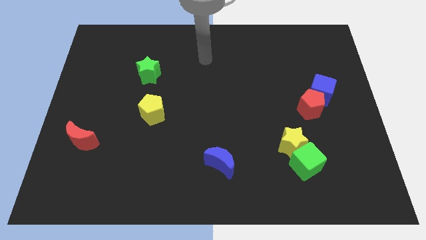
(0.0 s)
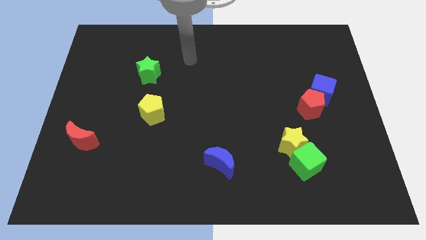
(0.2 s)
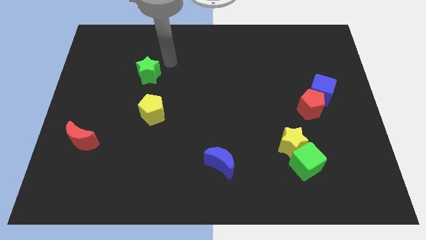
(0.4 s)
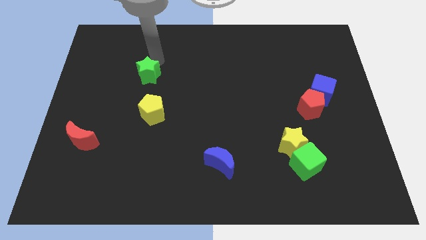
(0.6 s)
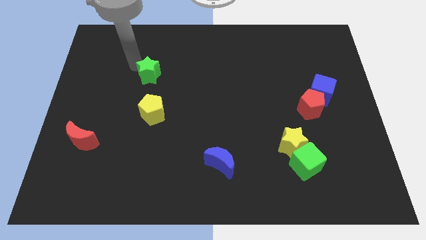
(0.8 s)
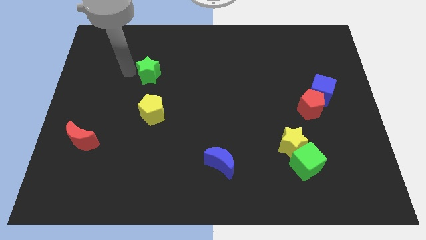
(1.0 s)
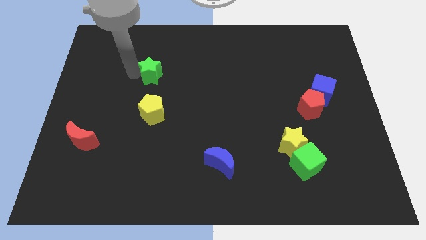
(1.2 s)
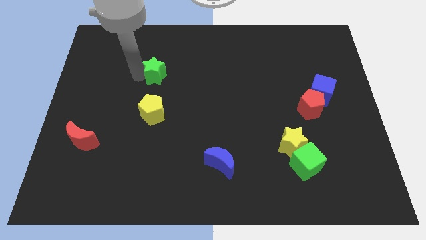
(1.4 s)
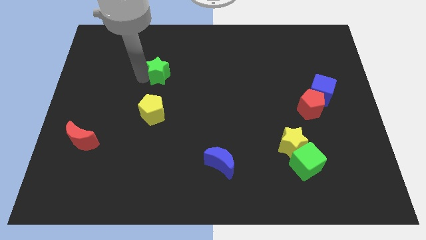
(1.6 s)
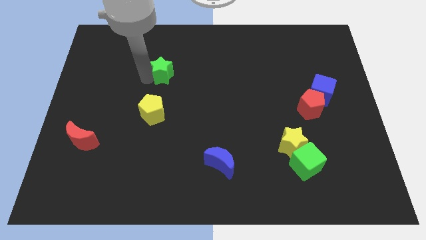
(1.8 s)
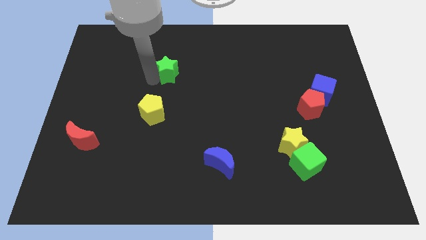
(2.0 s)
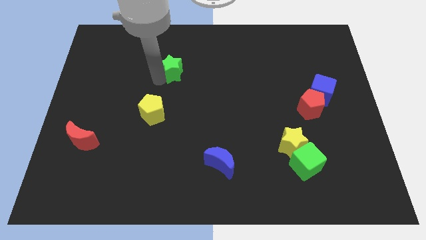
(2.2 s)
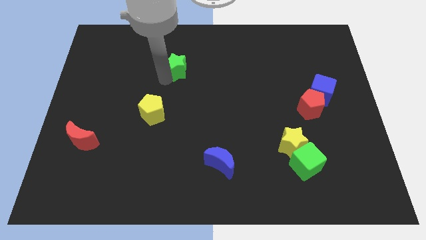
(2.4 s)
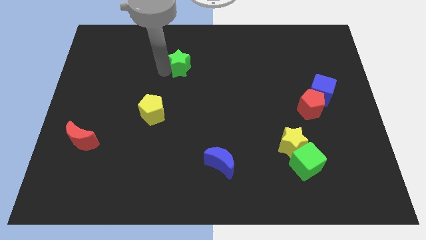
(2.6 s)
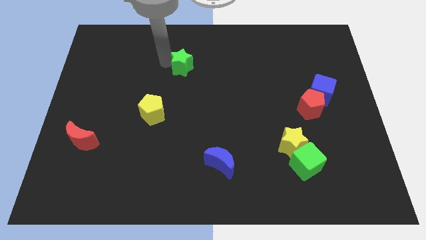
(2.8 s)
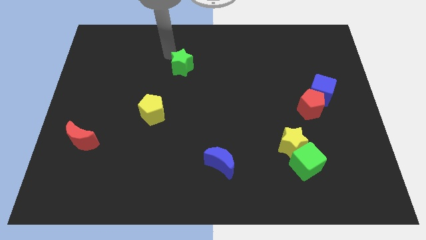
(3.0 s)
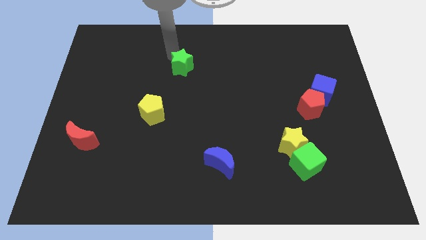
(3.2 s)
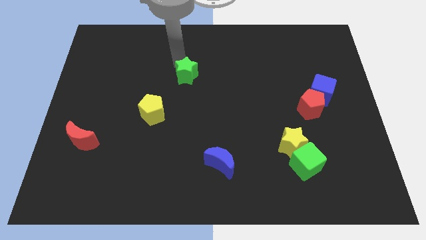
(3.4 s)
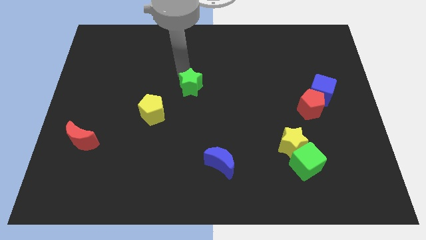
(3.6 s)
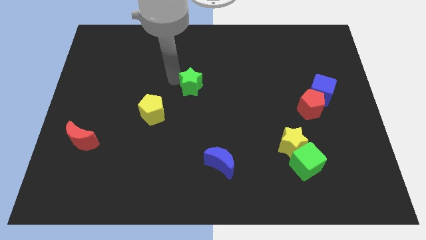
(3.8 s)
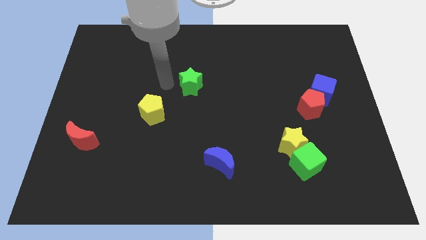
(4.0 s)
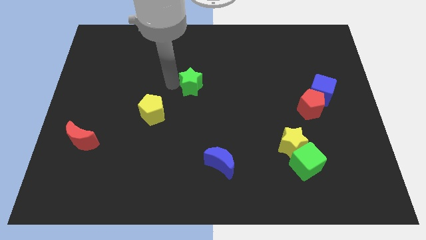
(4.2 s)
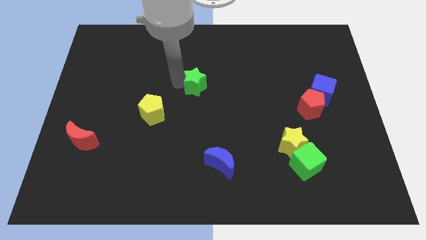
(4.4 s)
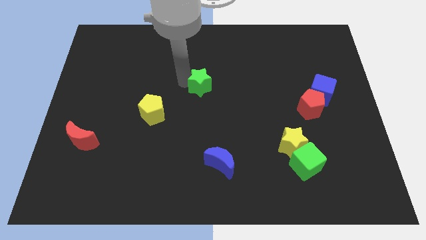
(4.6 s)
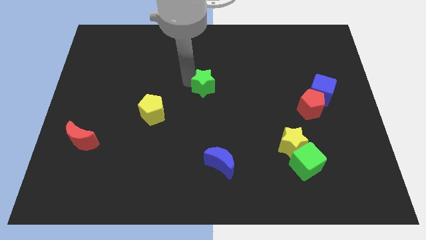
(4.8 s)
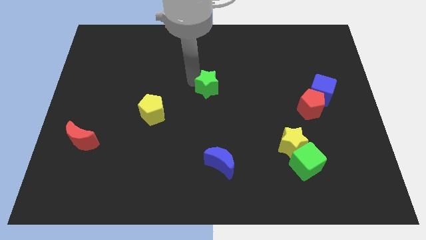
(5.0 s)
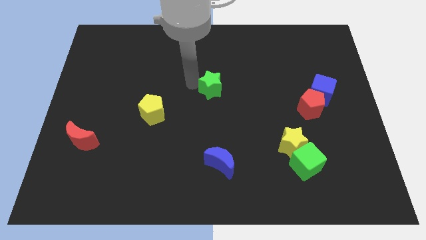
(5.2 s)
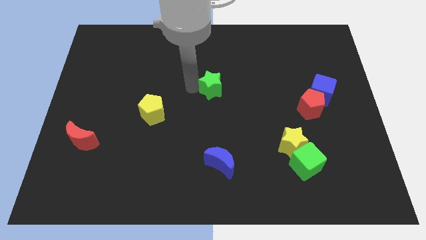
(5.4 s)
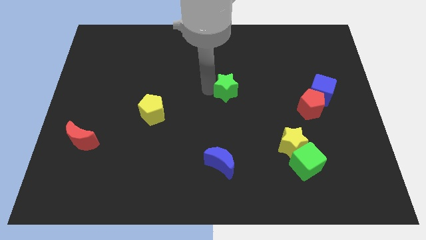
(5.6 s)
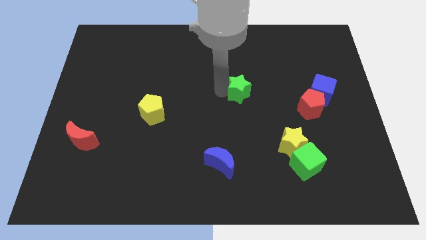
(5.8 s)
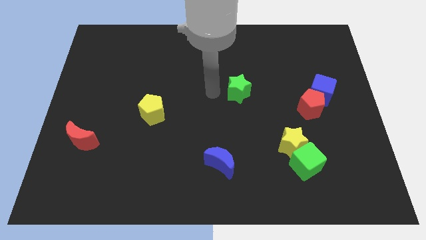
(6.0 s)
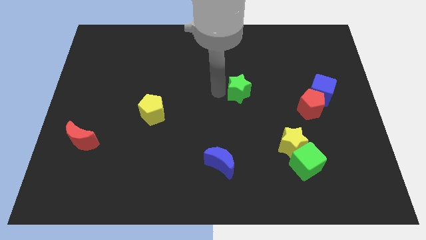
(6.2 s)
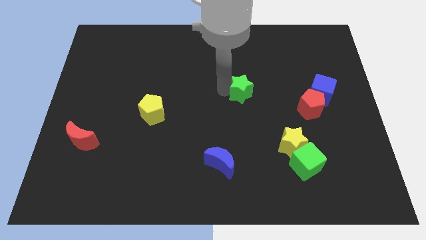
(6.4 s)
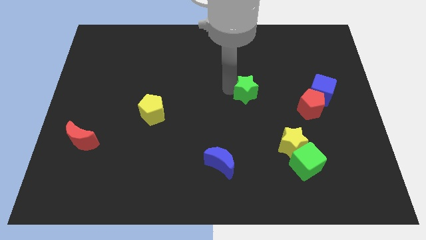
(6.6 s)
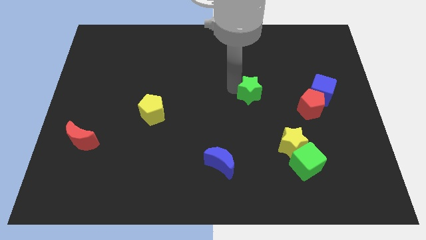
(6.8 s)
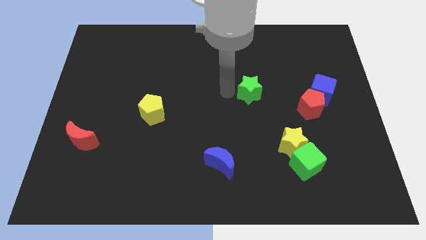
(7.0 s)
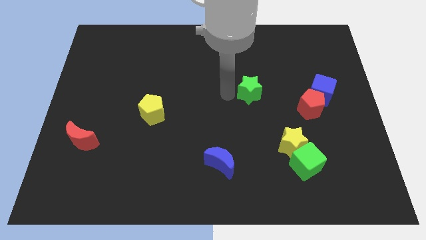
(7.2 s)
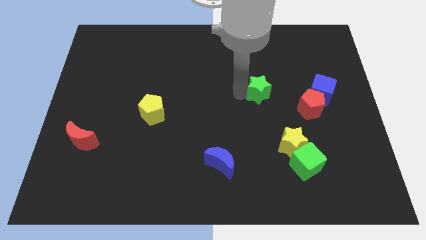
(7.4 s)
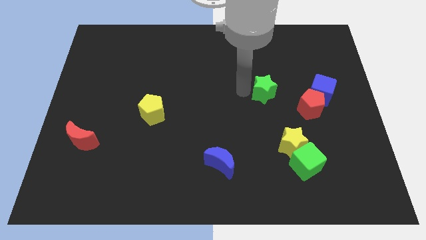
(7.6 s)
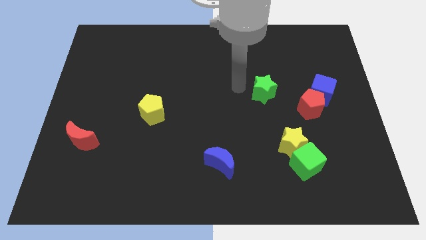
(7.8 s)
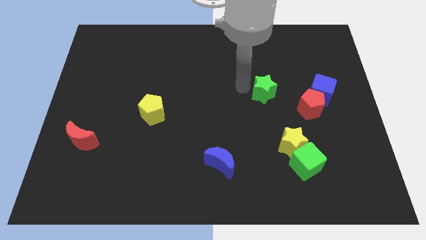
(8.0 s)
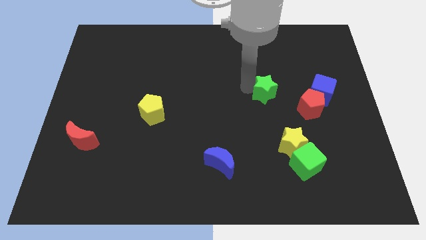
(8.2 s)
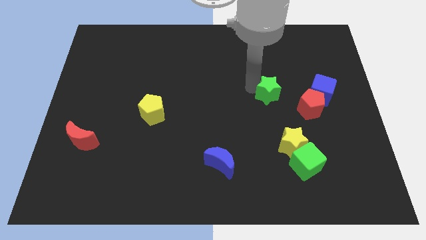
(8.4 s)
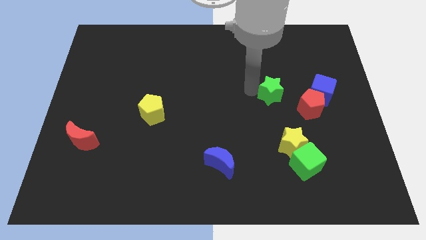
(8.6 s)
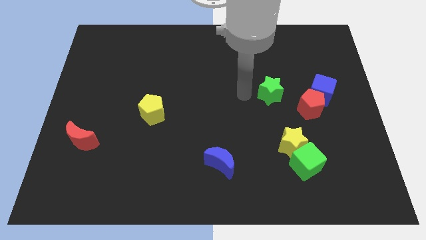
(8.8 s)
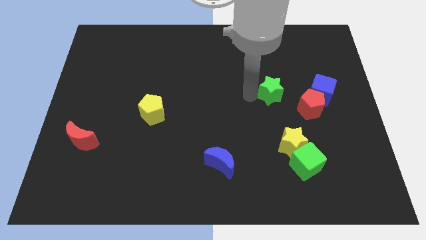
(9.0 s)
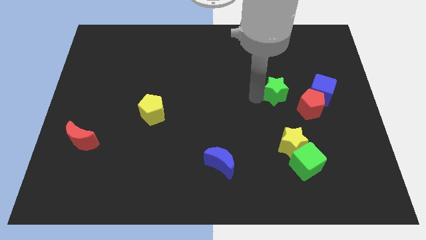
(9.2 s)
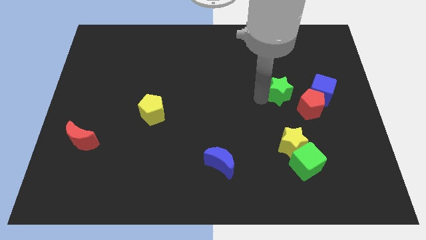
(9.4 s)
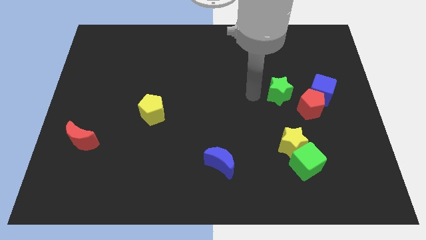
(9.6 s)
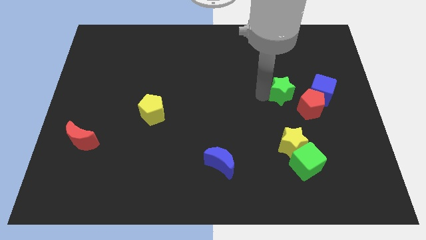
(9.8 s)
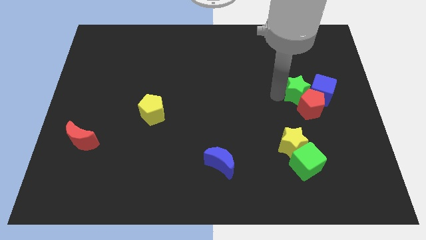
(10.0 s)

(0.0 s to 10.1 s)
move the green star towards the blue cube

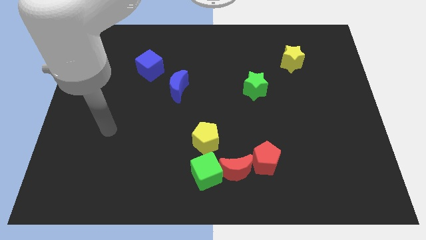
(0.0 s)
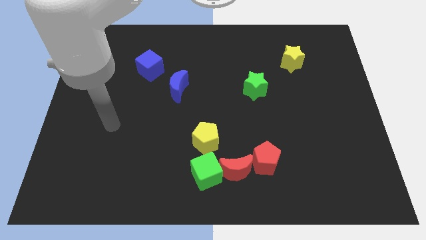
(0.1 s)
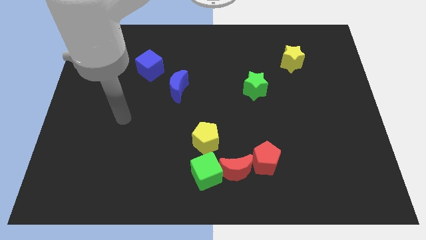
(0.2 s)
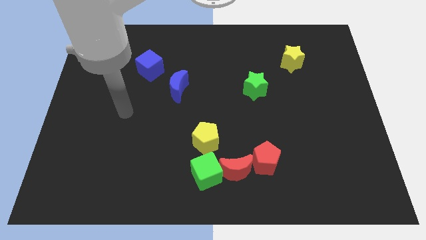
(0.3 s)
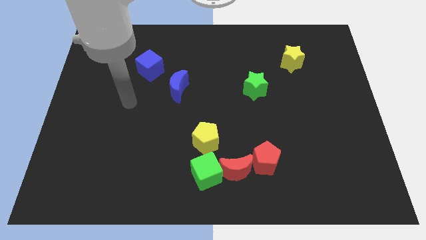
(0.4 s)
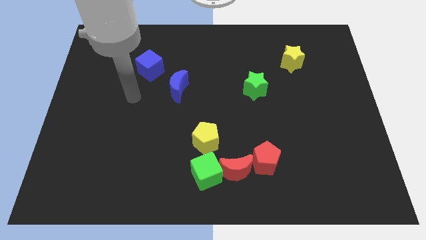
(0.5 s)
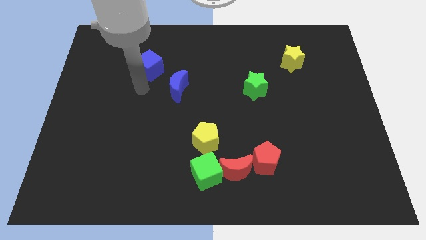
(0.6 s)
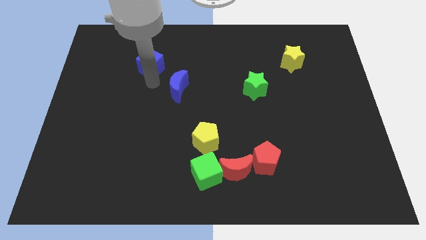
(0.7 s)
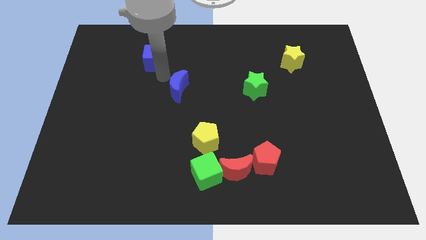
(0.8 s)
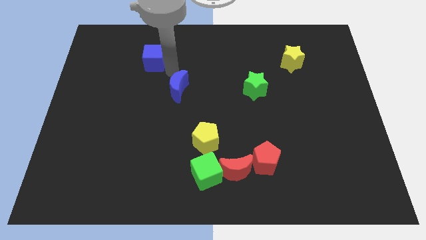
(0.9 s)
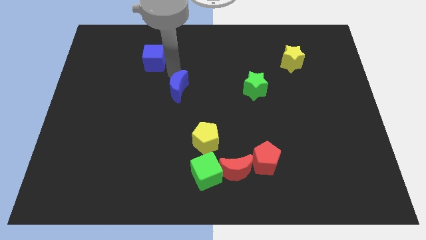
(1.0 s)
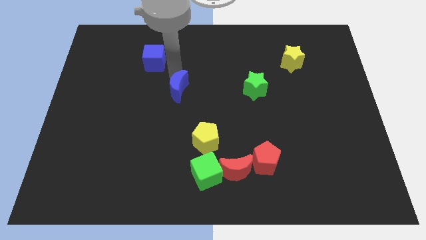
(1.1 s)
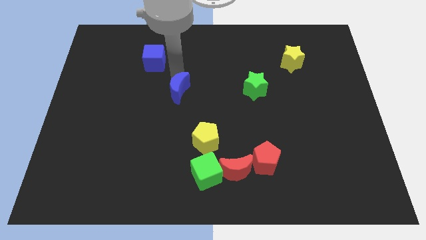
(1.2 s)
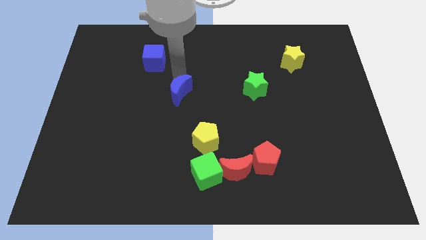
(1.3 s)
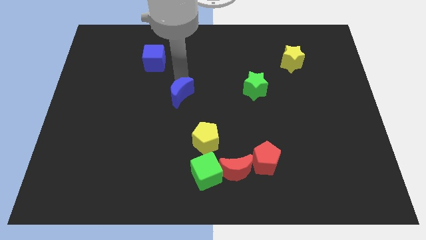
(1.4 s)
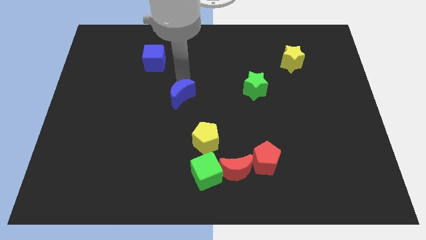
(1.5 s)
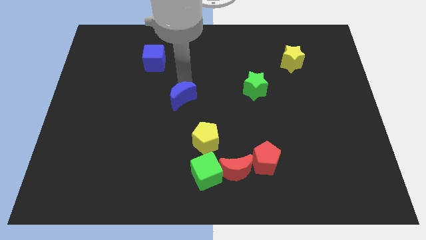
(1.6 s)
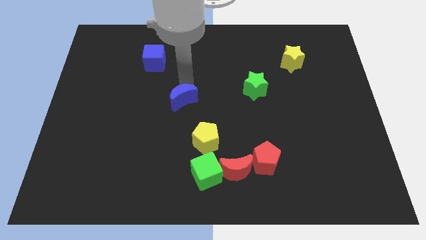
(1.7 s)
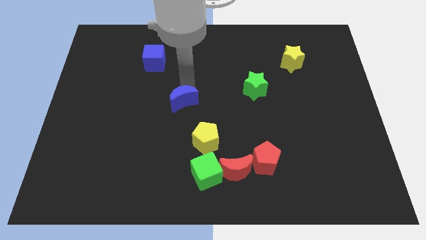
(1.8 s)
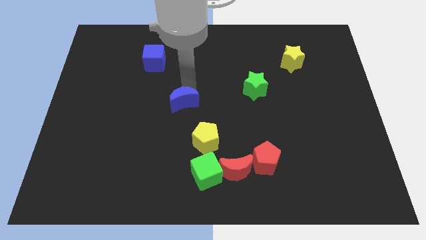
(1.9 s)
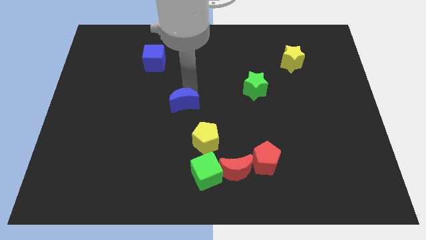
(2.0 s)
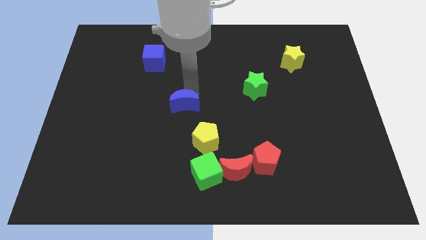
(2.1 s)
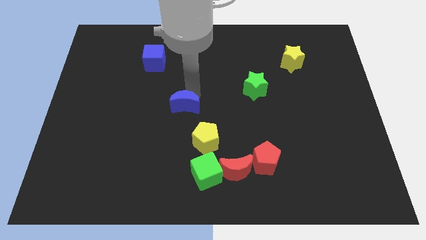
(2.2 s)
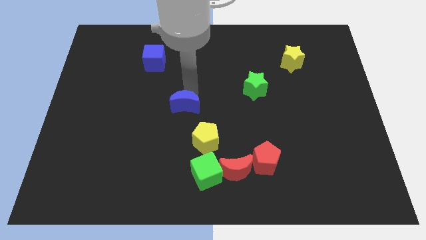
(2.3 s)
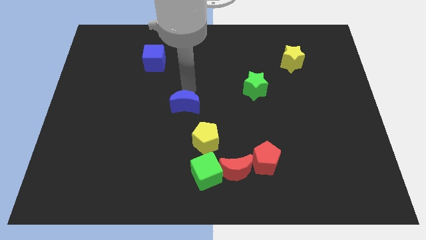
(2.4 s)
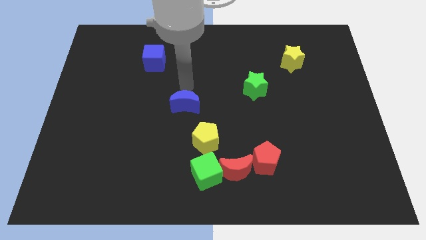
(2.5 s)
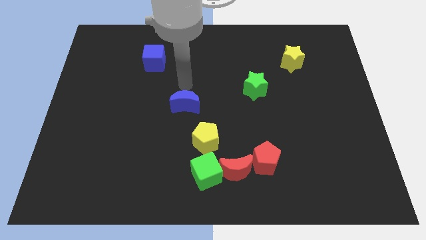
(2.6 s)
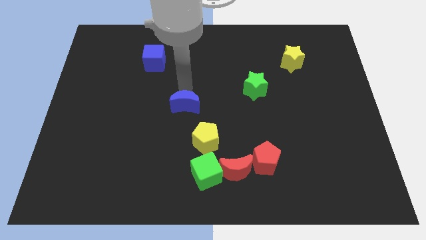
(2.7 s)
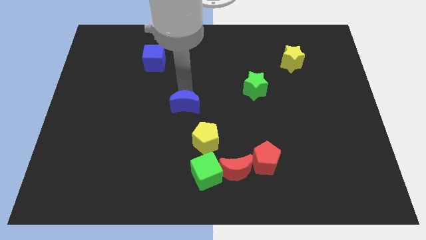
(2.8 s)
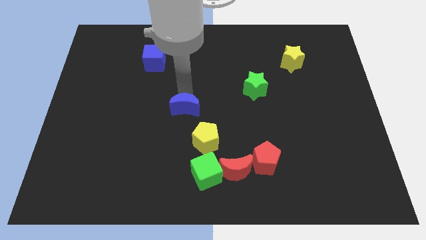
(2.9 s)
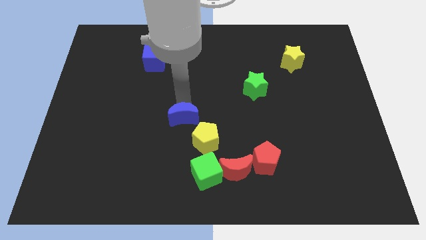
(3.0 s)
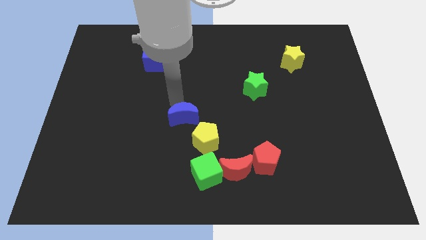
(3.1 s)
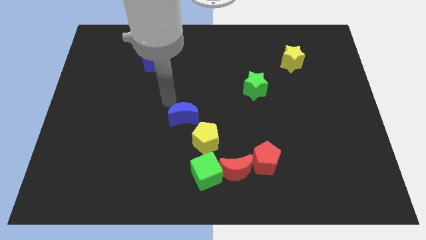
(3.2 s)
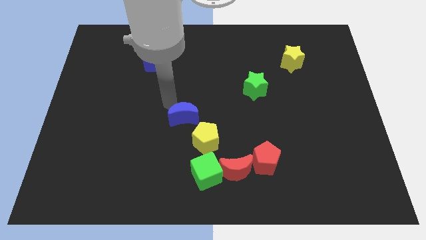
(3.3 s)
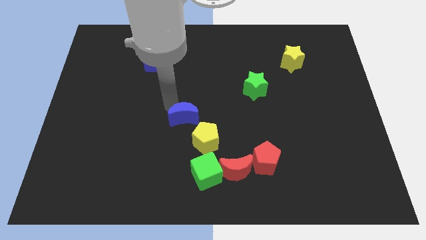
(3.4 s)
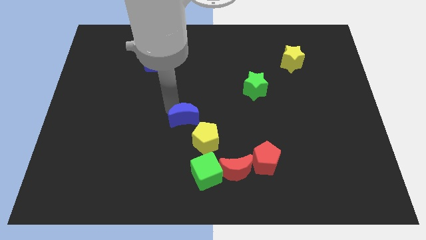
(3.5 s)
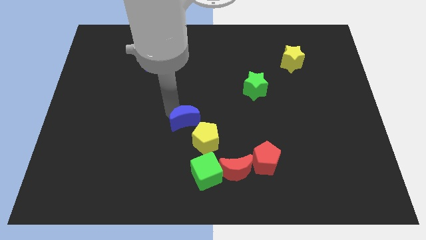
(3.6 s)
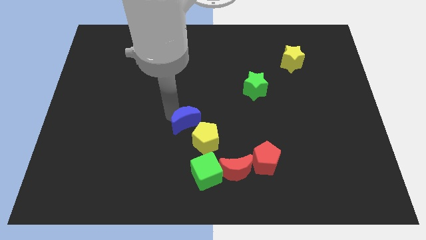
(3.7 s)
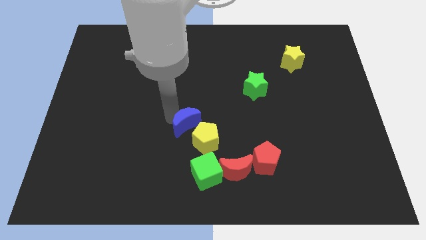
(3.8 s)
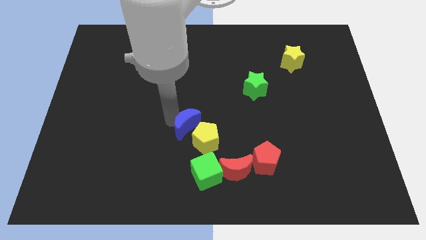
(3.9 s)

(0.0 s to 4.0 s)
slide the blue moon close to the yellow pentagon
